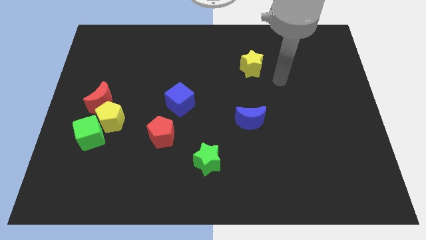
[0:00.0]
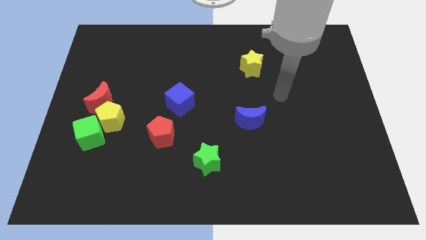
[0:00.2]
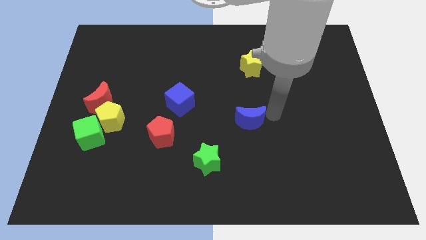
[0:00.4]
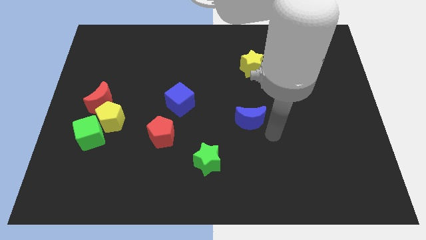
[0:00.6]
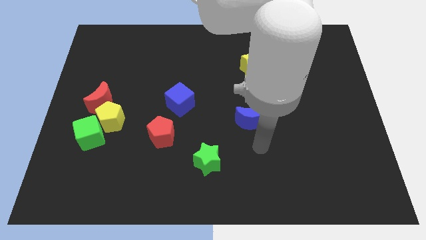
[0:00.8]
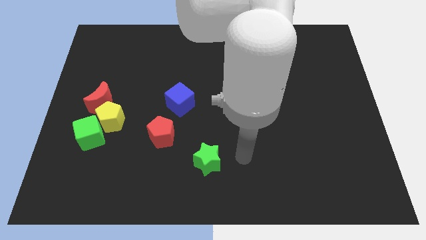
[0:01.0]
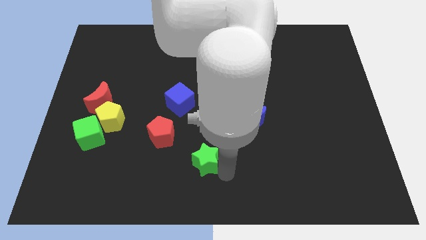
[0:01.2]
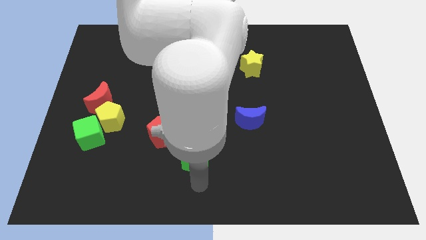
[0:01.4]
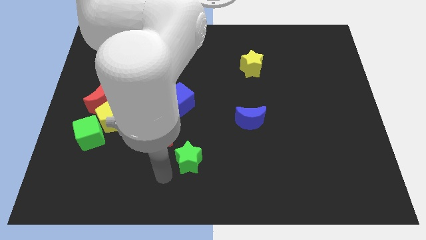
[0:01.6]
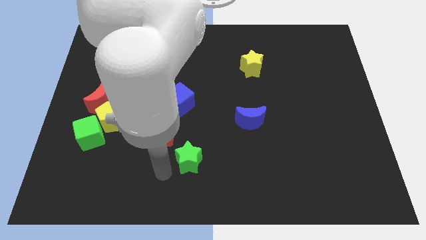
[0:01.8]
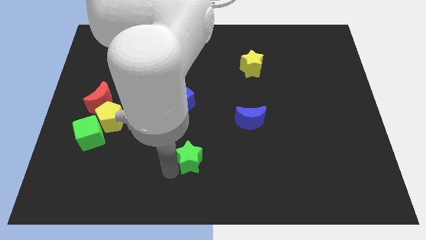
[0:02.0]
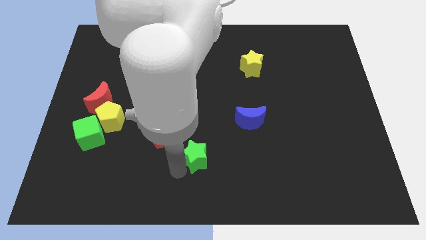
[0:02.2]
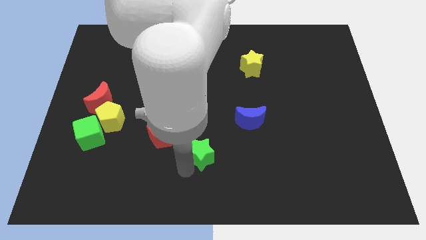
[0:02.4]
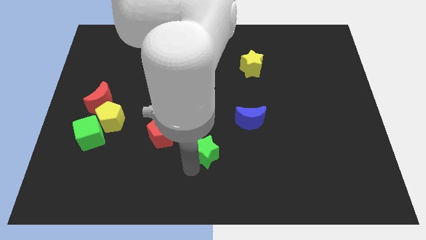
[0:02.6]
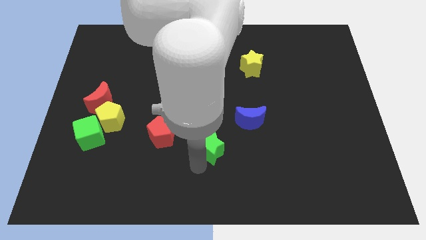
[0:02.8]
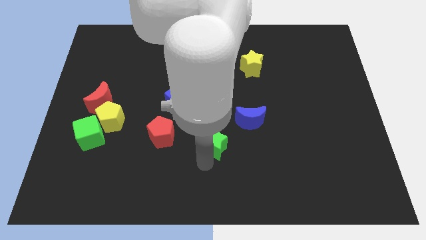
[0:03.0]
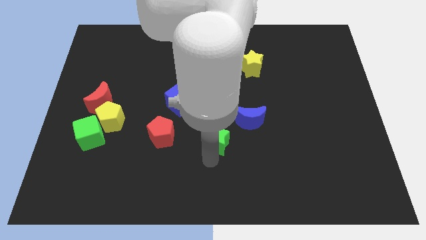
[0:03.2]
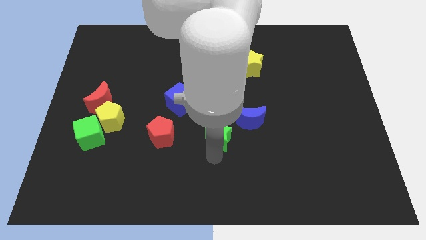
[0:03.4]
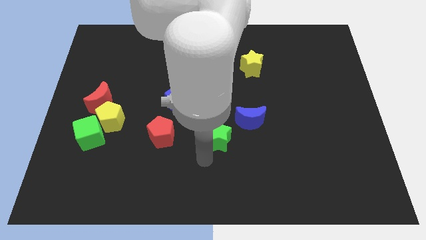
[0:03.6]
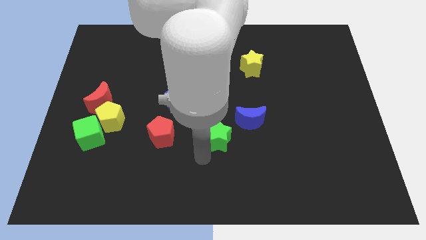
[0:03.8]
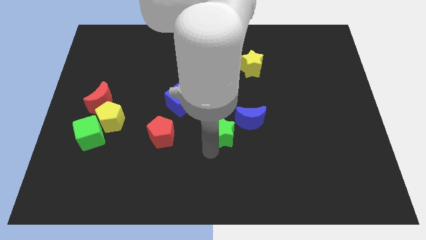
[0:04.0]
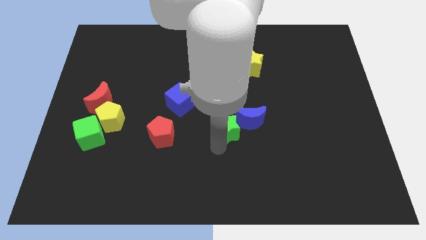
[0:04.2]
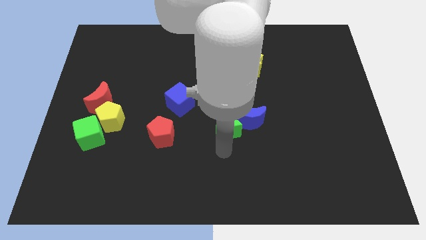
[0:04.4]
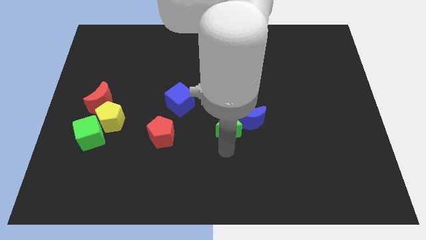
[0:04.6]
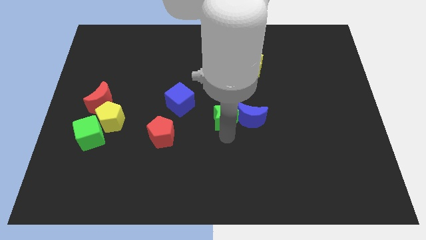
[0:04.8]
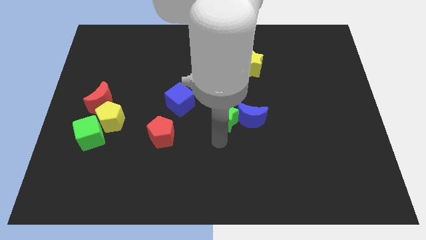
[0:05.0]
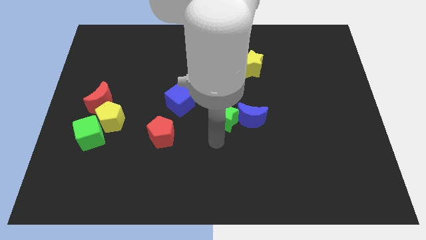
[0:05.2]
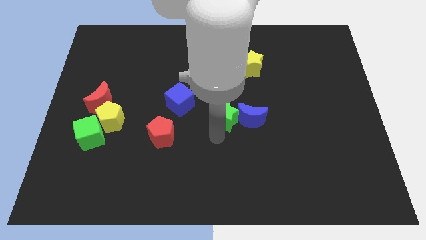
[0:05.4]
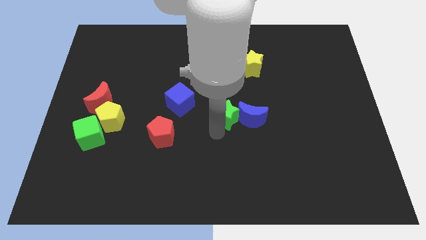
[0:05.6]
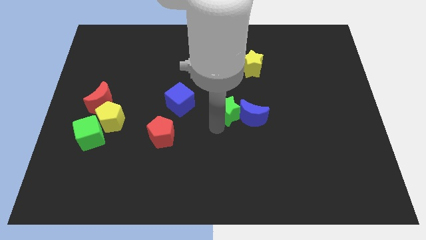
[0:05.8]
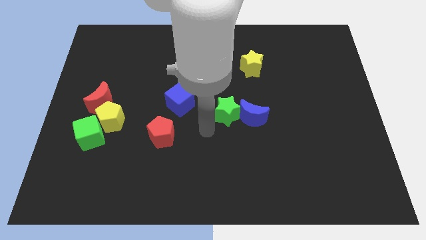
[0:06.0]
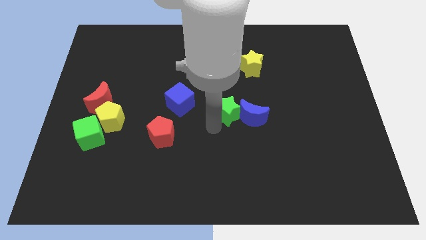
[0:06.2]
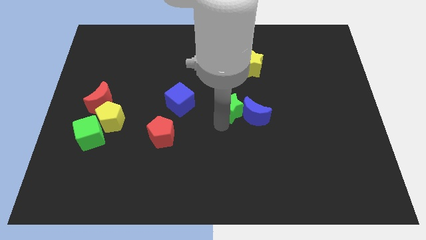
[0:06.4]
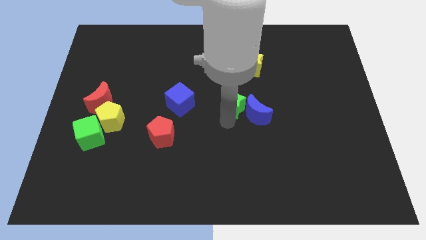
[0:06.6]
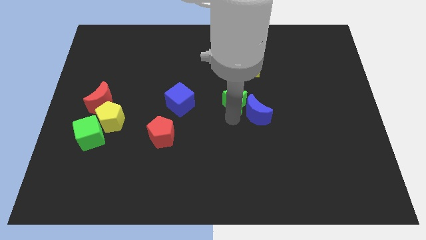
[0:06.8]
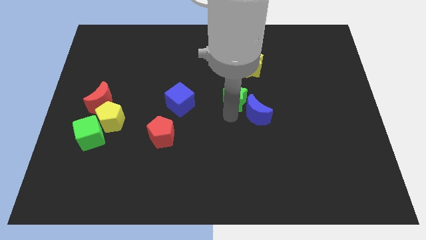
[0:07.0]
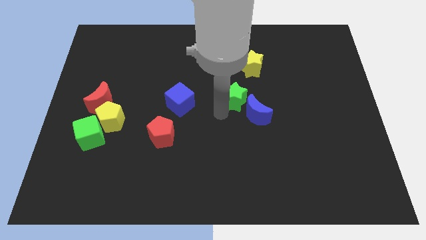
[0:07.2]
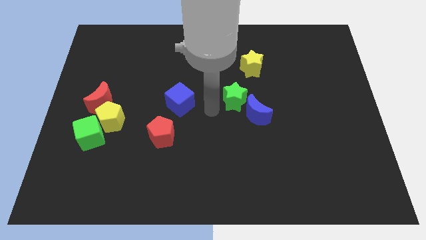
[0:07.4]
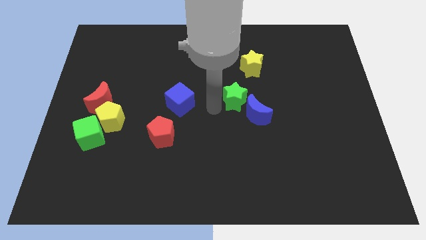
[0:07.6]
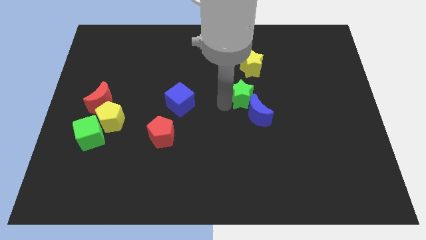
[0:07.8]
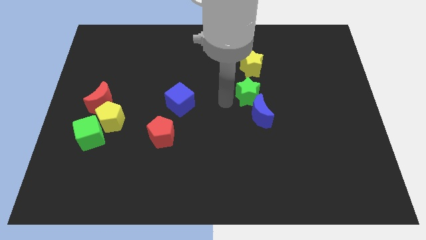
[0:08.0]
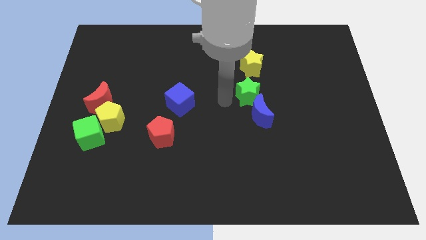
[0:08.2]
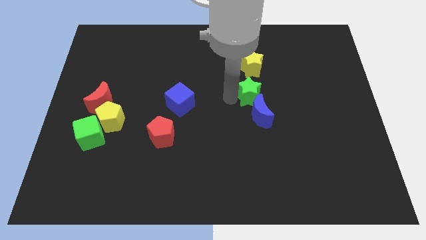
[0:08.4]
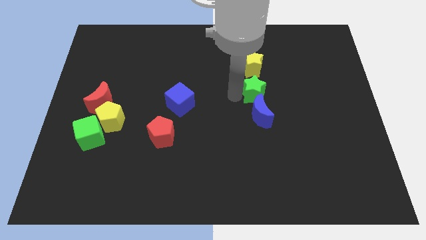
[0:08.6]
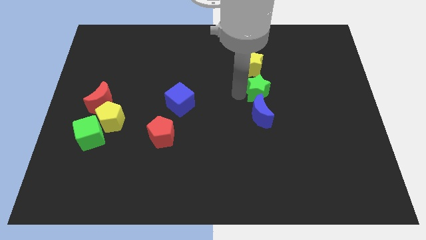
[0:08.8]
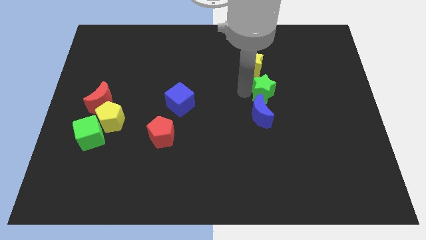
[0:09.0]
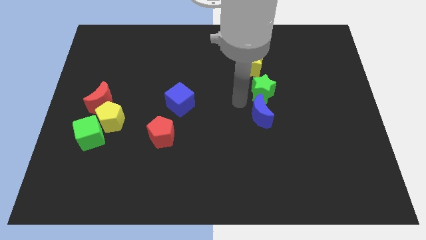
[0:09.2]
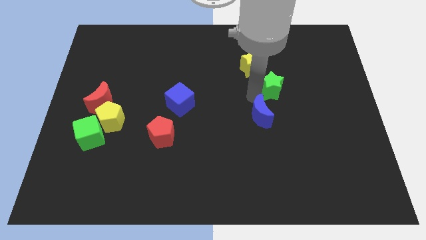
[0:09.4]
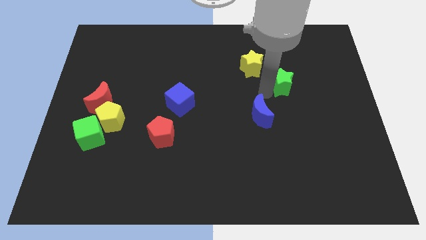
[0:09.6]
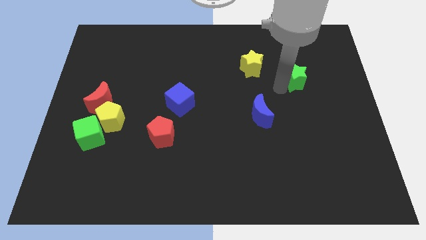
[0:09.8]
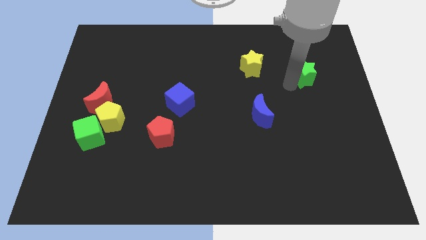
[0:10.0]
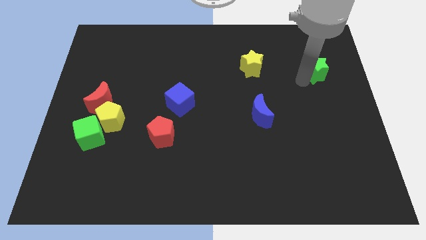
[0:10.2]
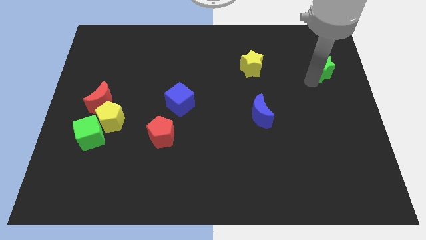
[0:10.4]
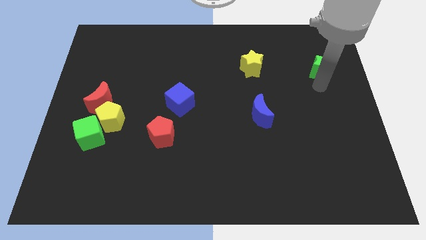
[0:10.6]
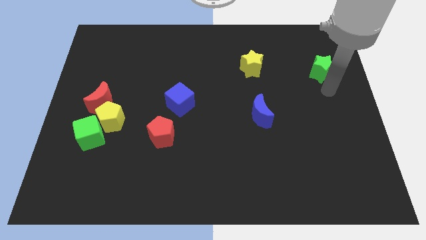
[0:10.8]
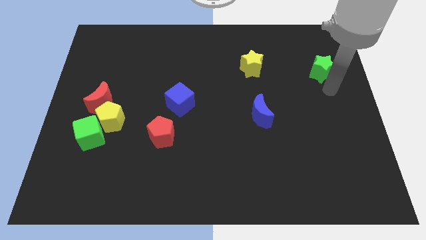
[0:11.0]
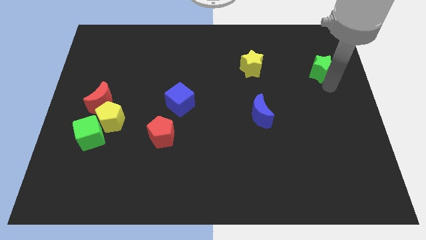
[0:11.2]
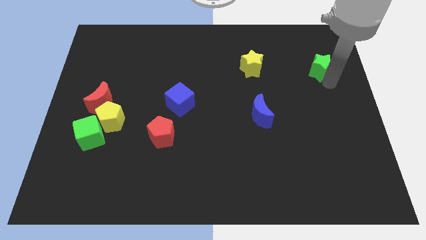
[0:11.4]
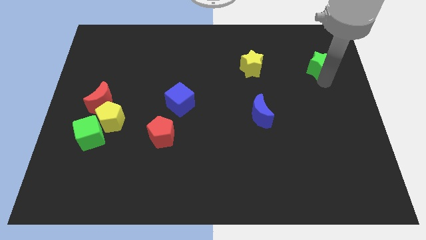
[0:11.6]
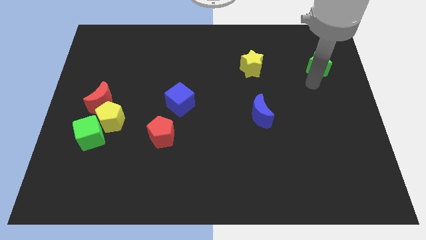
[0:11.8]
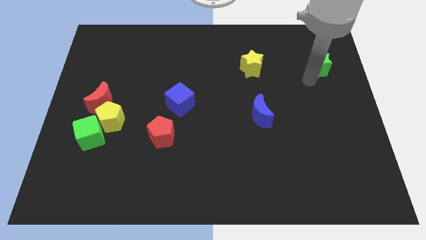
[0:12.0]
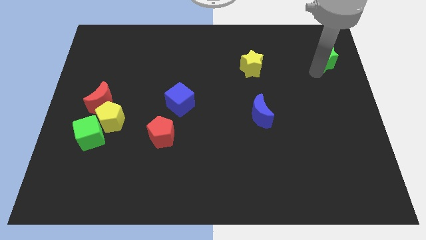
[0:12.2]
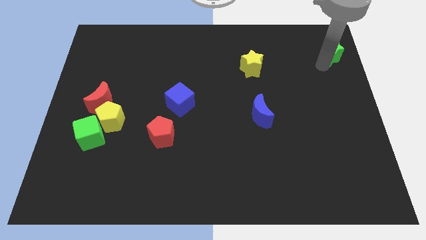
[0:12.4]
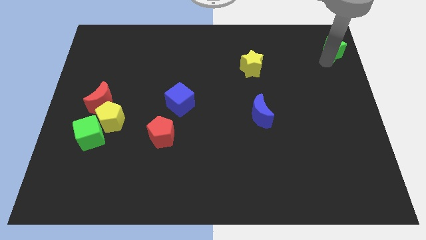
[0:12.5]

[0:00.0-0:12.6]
put the green star to the top right corner
